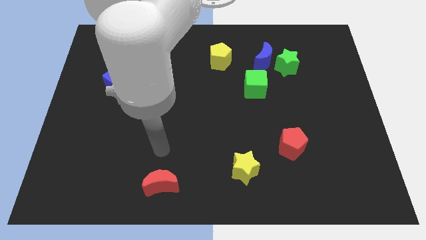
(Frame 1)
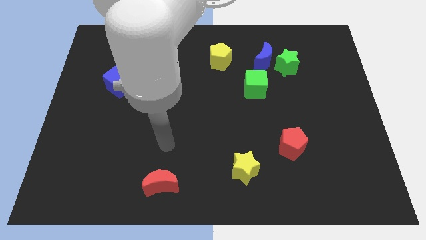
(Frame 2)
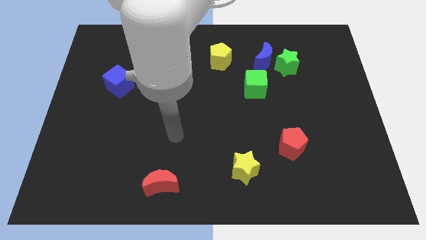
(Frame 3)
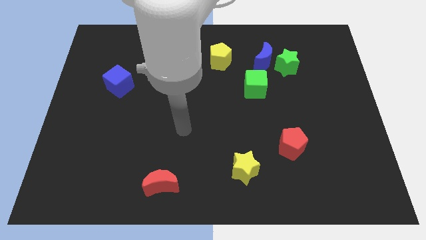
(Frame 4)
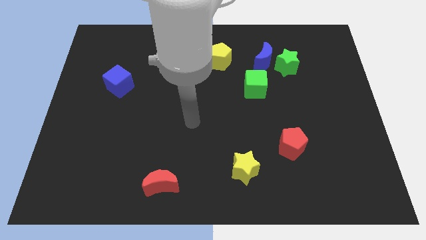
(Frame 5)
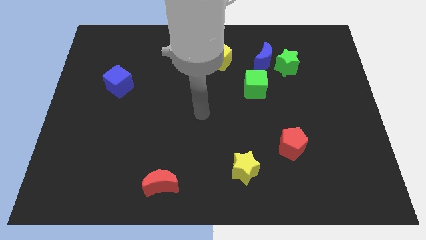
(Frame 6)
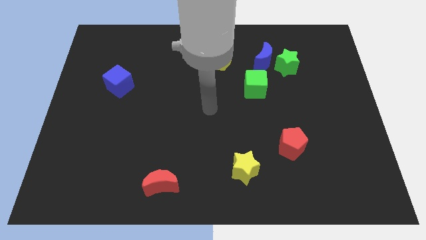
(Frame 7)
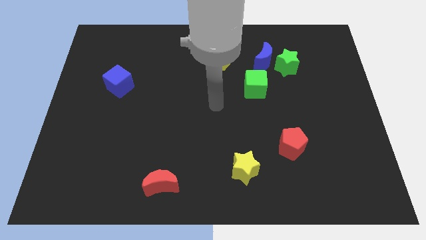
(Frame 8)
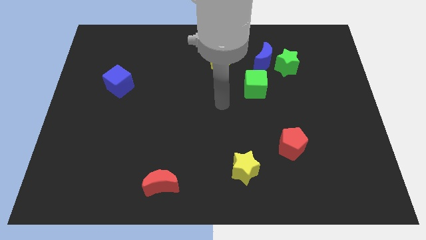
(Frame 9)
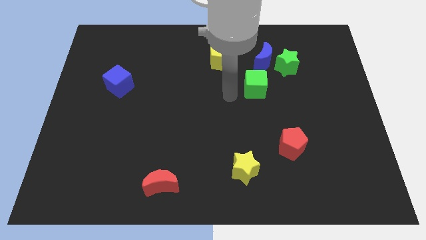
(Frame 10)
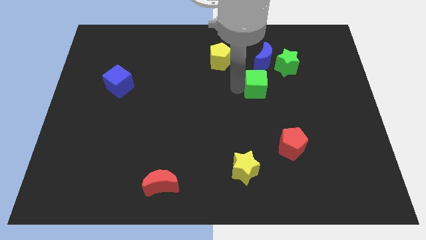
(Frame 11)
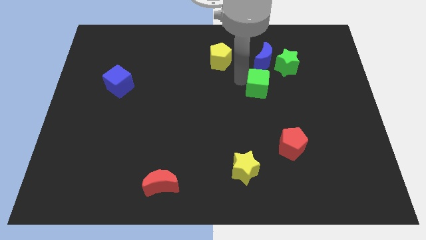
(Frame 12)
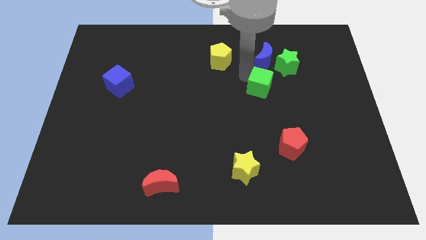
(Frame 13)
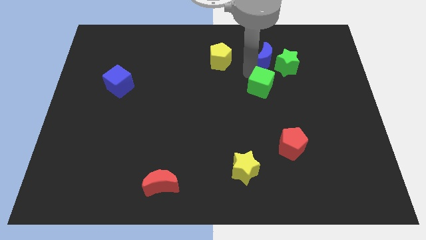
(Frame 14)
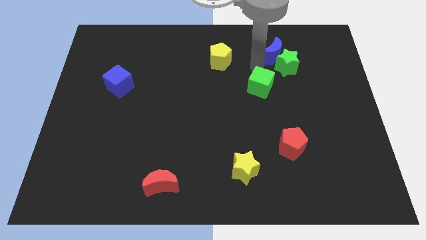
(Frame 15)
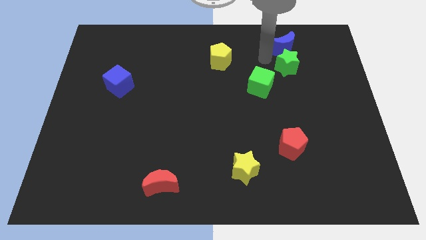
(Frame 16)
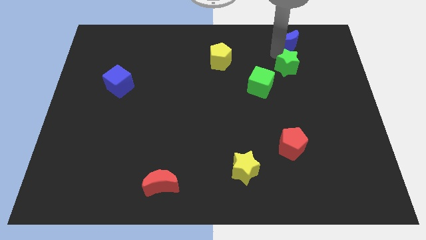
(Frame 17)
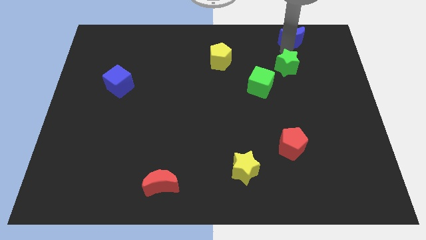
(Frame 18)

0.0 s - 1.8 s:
pull the green star apart from the blue moon

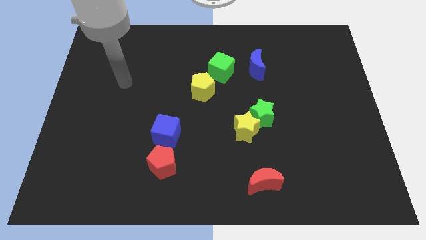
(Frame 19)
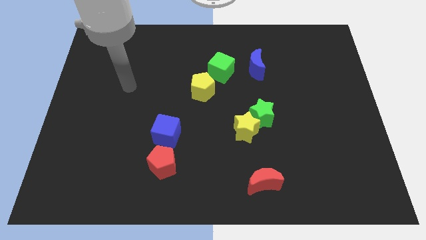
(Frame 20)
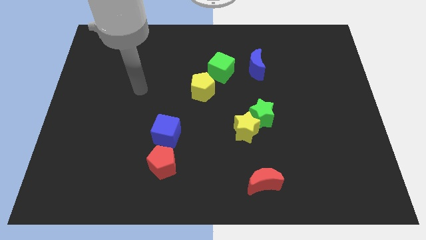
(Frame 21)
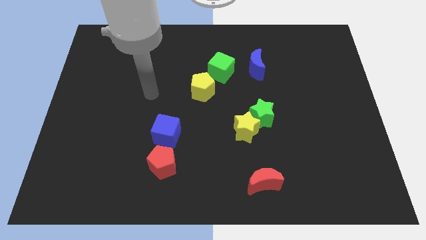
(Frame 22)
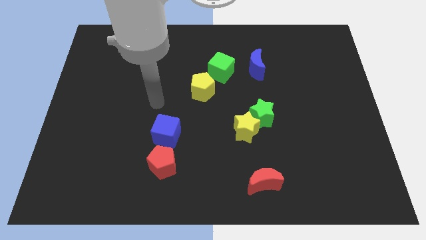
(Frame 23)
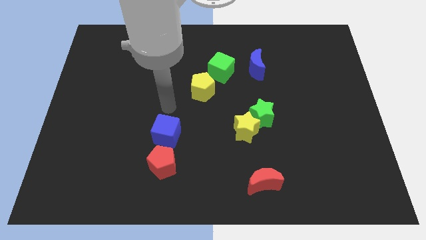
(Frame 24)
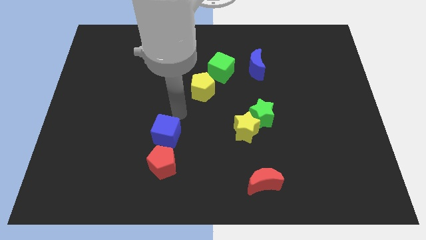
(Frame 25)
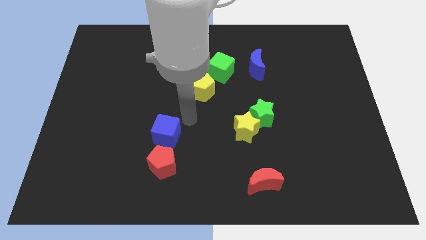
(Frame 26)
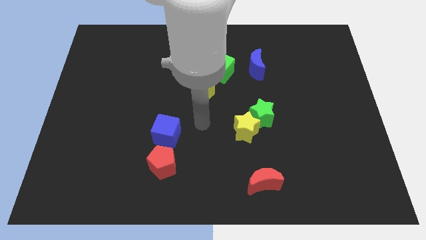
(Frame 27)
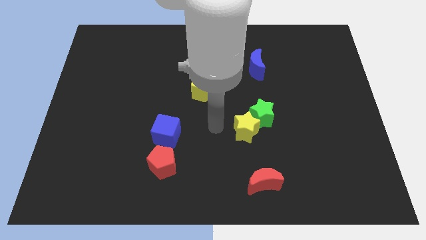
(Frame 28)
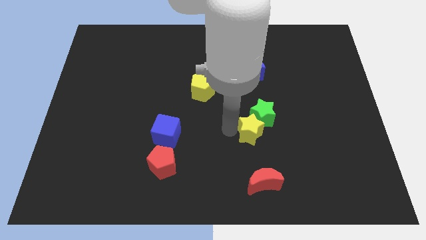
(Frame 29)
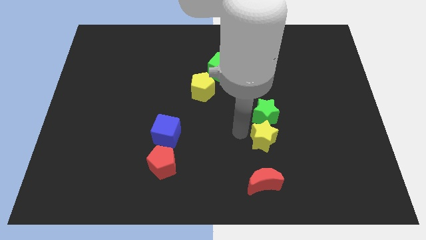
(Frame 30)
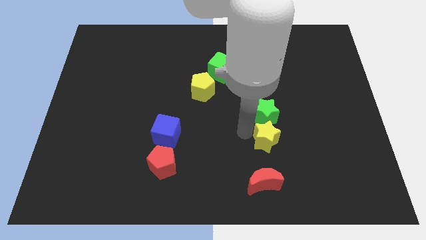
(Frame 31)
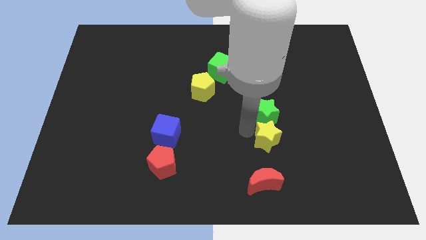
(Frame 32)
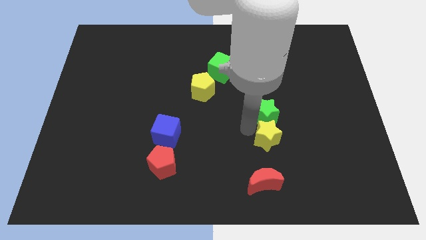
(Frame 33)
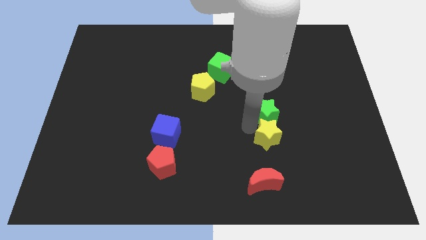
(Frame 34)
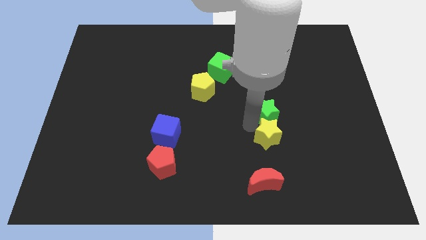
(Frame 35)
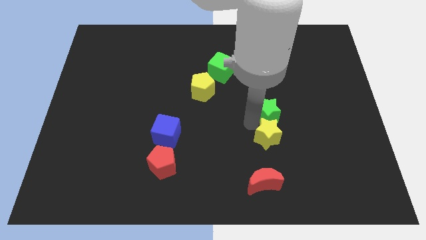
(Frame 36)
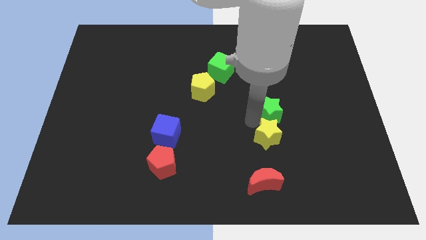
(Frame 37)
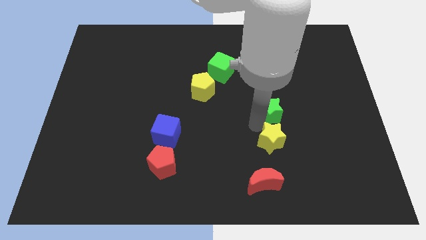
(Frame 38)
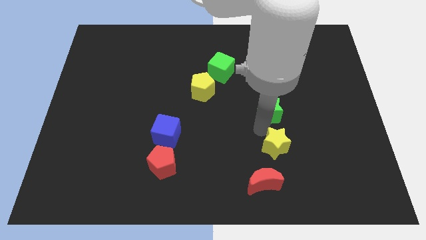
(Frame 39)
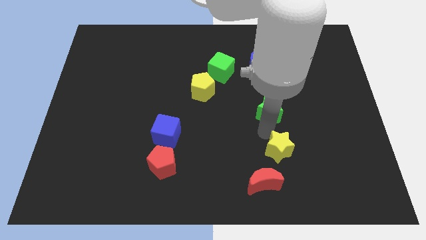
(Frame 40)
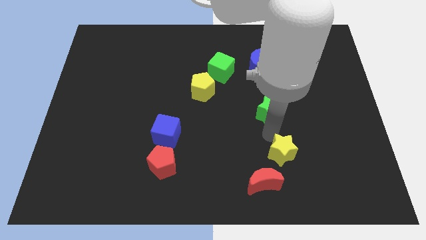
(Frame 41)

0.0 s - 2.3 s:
pull the green star apart from the yellow star

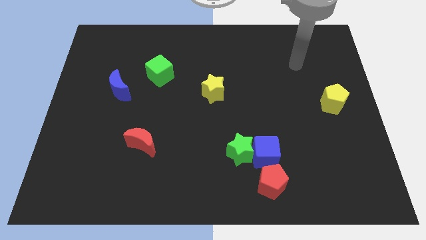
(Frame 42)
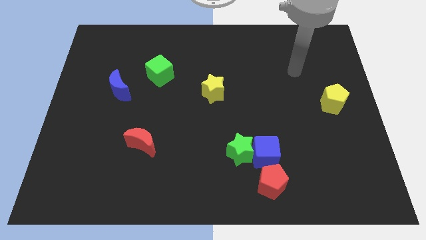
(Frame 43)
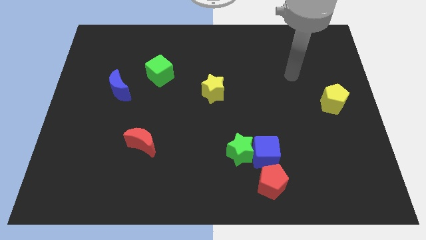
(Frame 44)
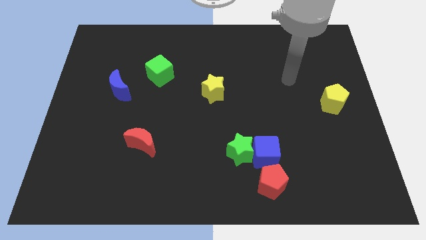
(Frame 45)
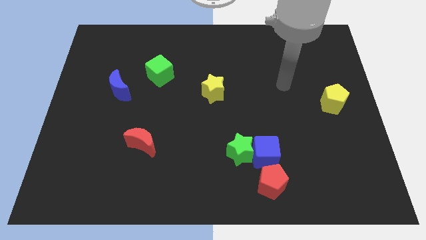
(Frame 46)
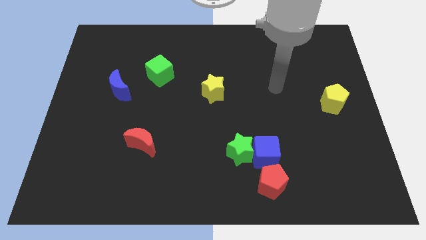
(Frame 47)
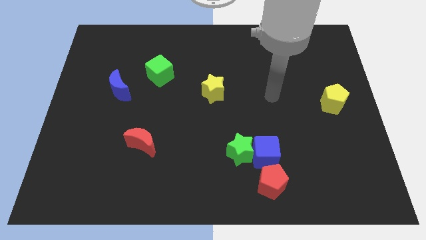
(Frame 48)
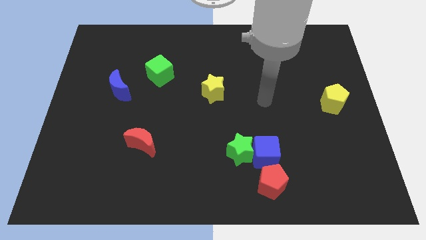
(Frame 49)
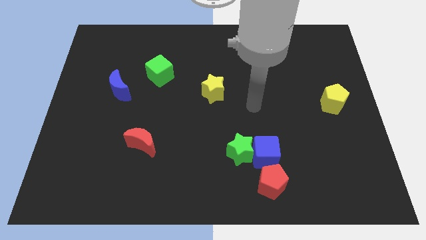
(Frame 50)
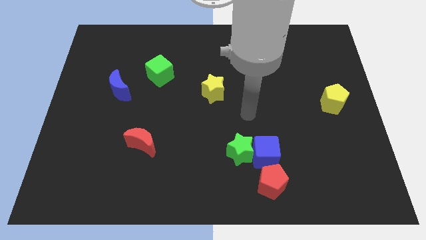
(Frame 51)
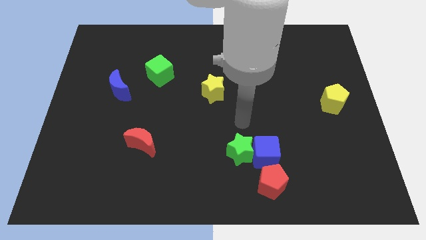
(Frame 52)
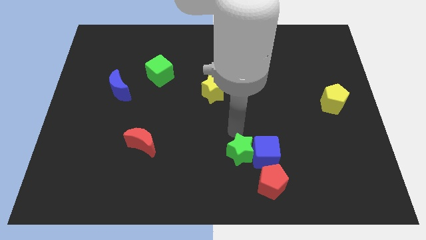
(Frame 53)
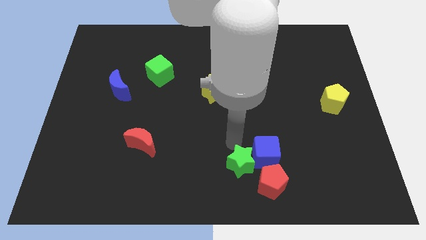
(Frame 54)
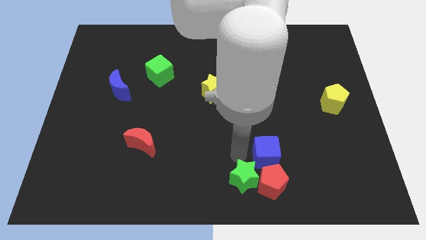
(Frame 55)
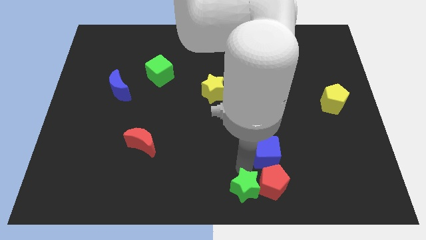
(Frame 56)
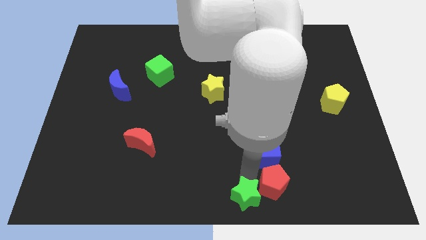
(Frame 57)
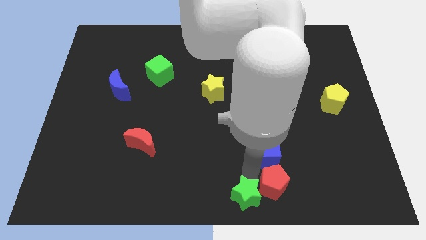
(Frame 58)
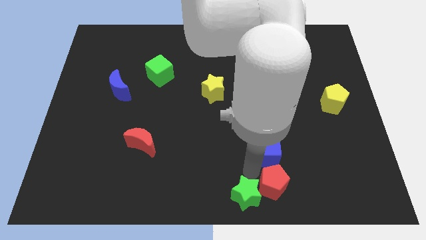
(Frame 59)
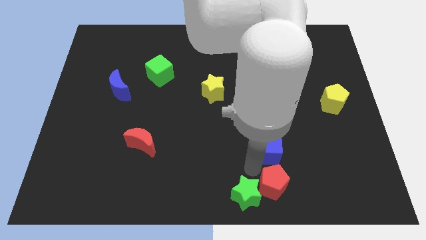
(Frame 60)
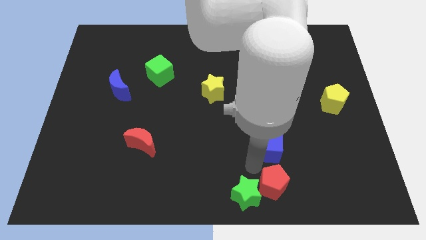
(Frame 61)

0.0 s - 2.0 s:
move the blue cube away from the green star and red pentagon

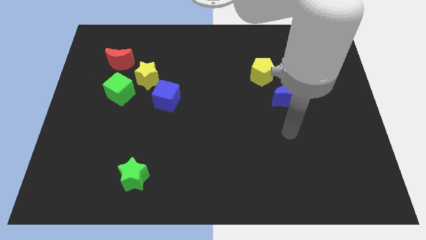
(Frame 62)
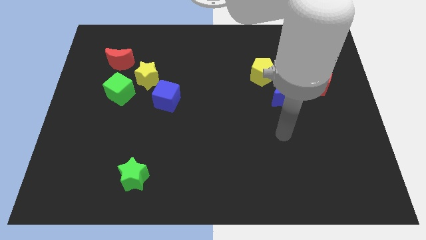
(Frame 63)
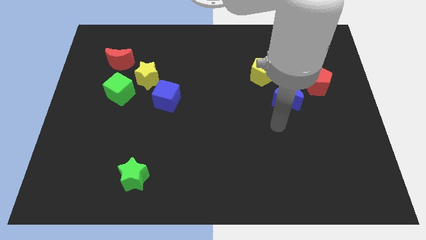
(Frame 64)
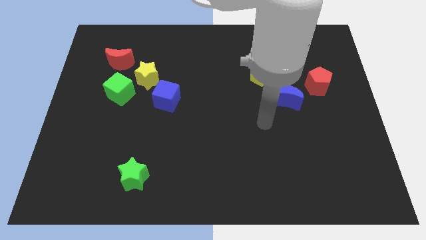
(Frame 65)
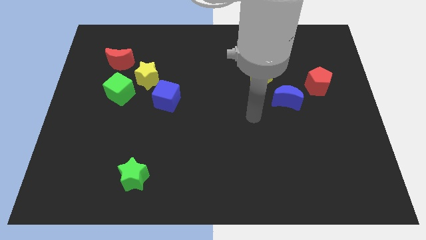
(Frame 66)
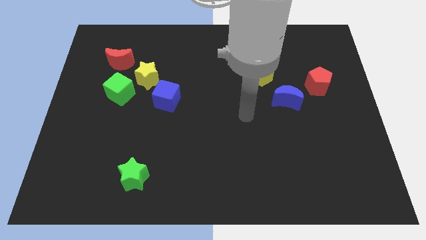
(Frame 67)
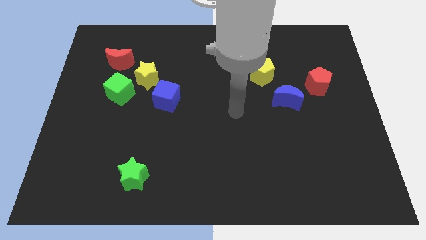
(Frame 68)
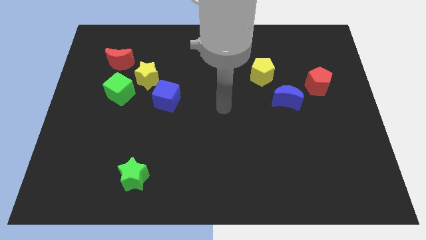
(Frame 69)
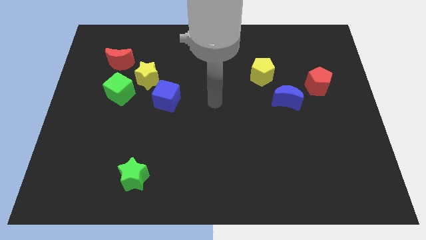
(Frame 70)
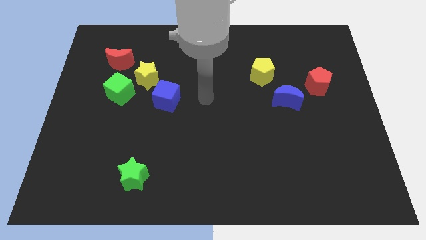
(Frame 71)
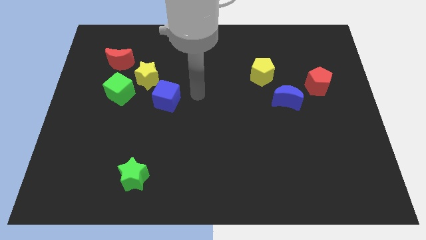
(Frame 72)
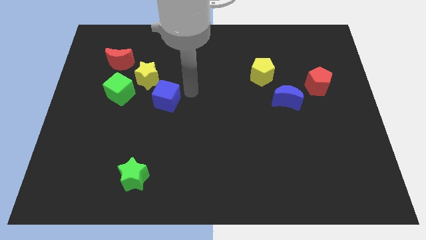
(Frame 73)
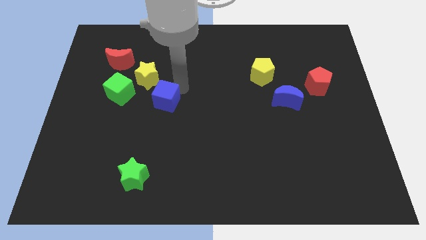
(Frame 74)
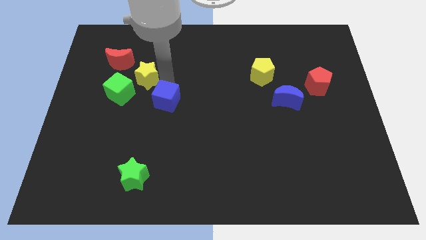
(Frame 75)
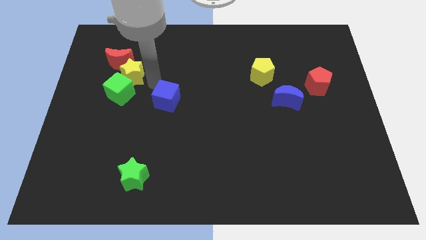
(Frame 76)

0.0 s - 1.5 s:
move the blue cube away from the yellow star

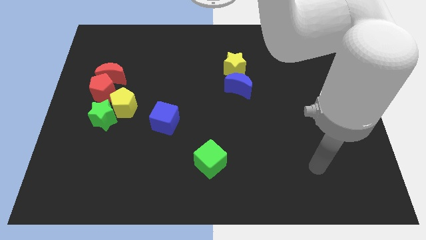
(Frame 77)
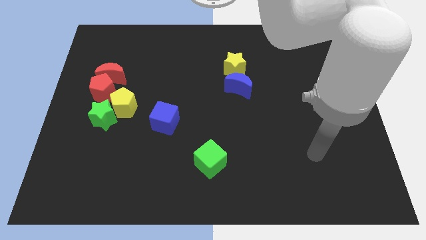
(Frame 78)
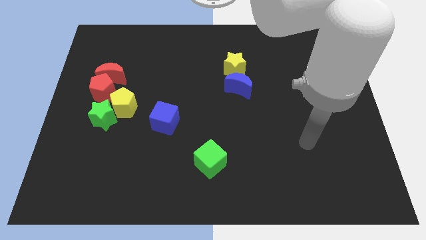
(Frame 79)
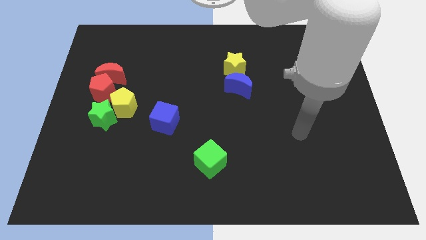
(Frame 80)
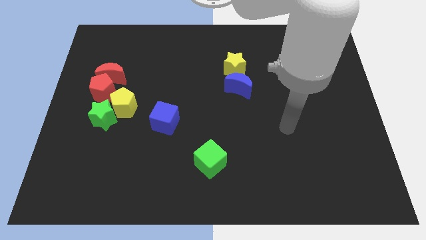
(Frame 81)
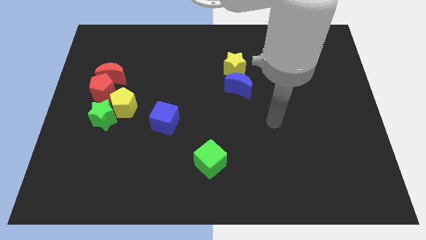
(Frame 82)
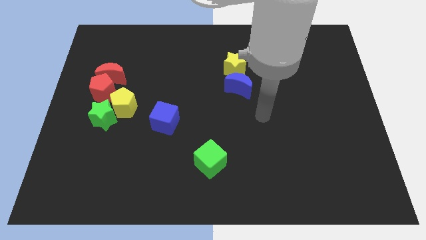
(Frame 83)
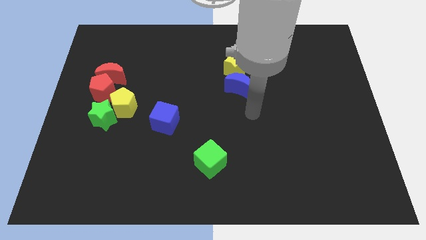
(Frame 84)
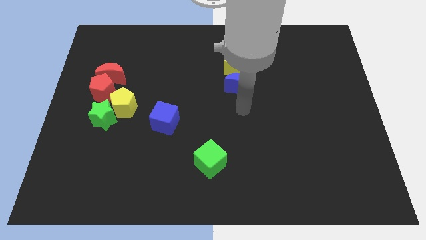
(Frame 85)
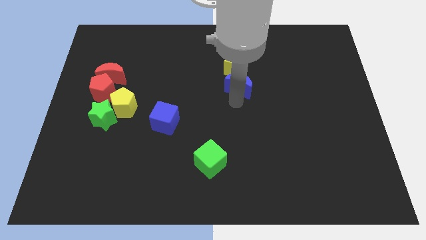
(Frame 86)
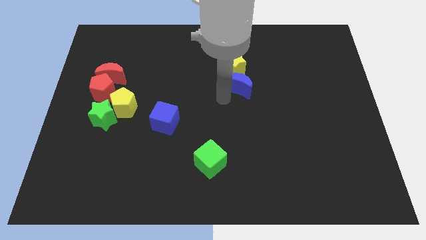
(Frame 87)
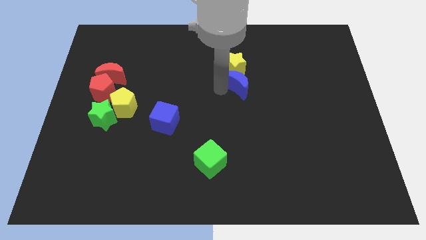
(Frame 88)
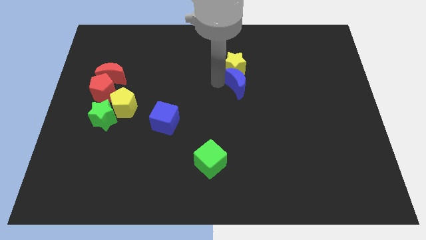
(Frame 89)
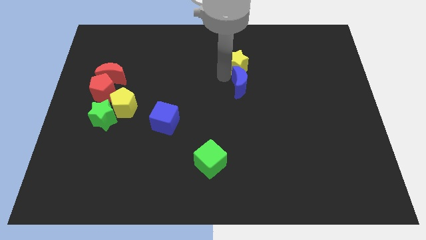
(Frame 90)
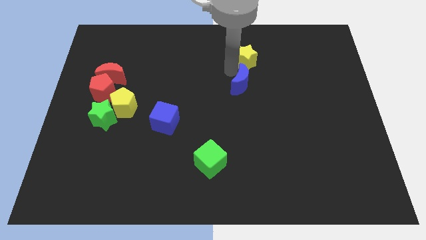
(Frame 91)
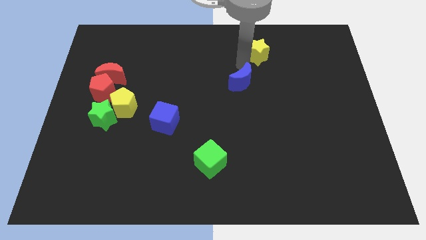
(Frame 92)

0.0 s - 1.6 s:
move the blue moon away from the yellow star

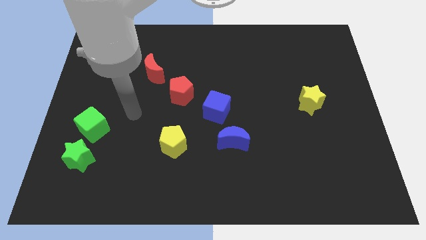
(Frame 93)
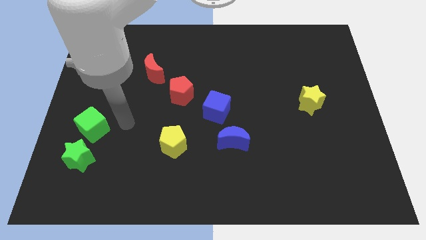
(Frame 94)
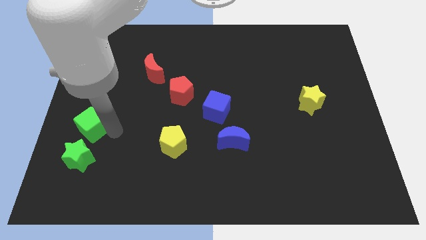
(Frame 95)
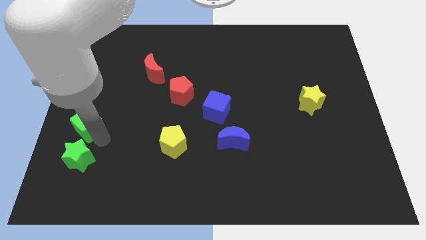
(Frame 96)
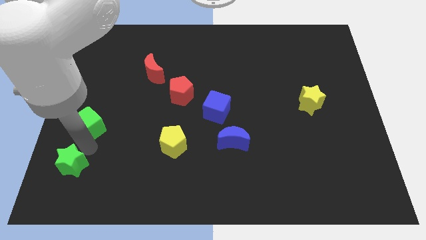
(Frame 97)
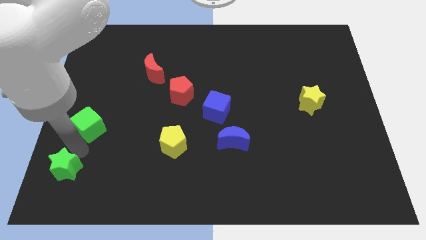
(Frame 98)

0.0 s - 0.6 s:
move the green cube away from the green star